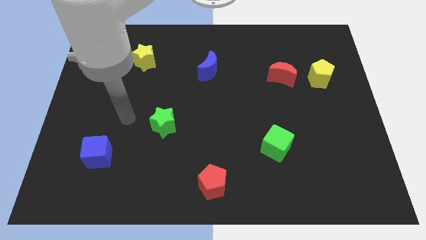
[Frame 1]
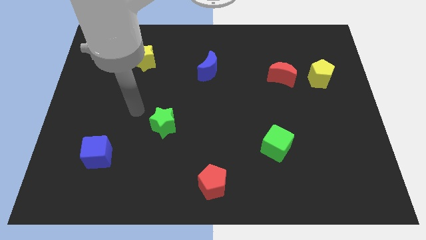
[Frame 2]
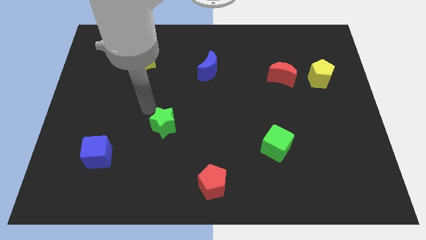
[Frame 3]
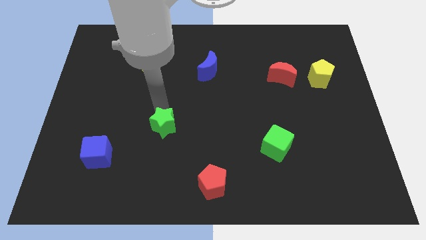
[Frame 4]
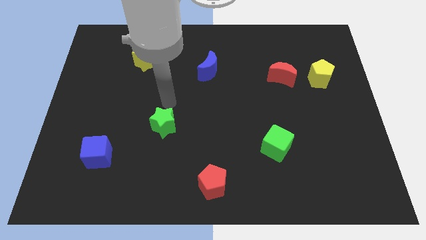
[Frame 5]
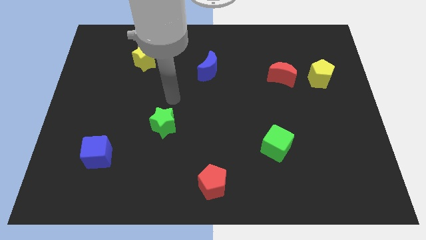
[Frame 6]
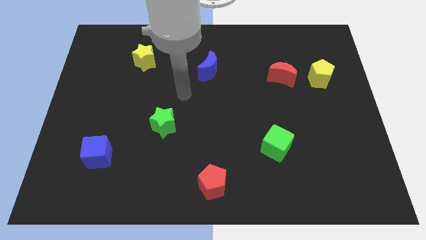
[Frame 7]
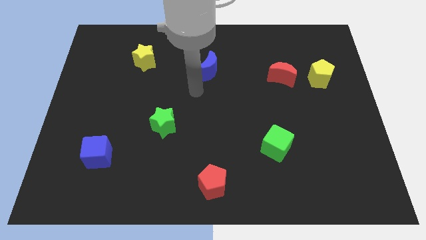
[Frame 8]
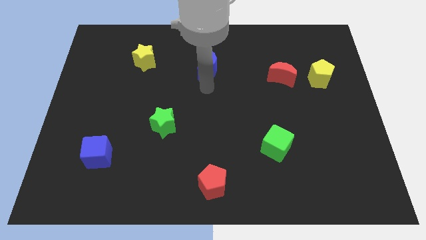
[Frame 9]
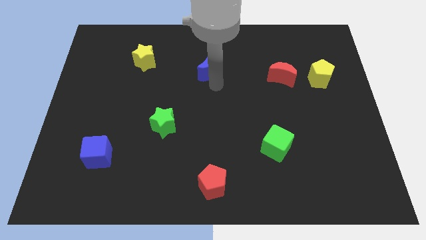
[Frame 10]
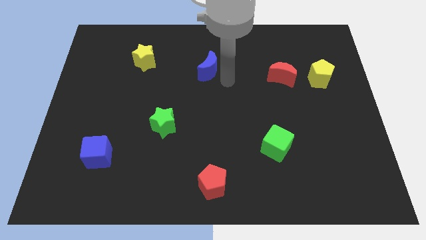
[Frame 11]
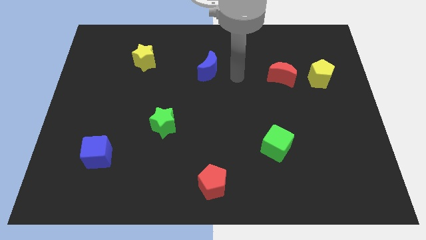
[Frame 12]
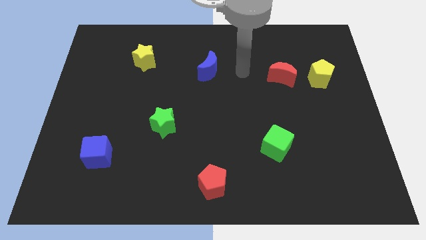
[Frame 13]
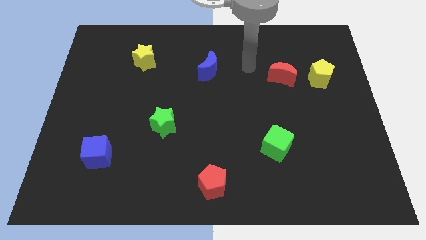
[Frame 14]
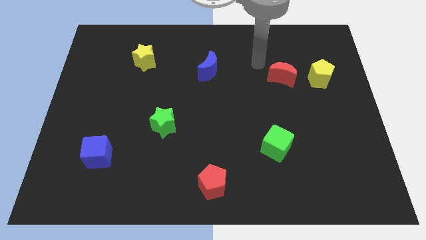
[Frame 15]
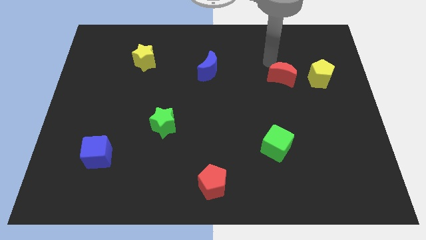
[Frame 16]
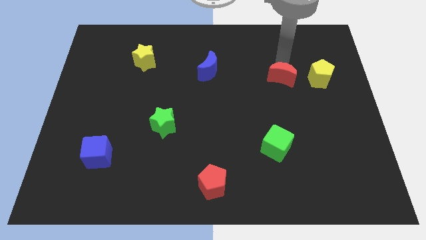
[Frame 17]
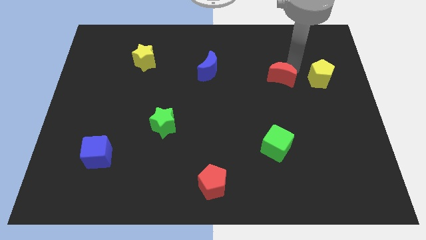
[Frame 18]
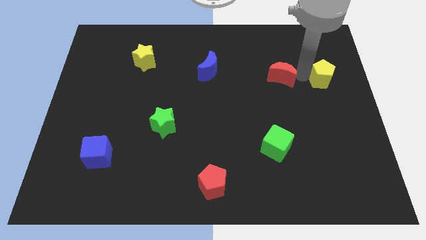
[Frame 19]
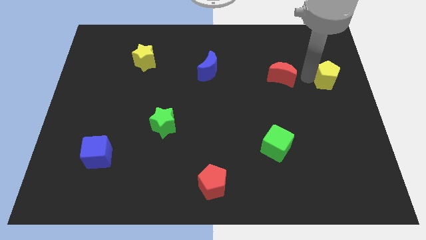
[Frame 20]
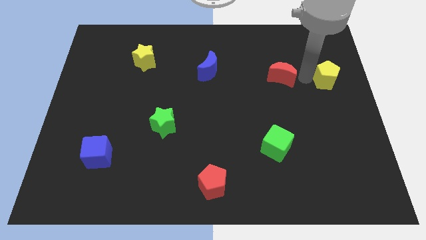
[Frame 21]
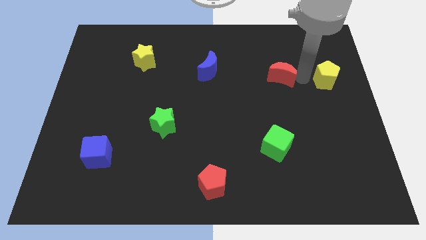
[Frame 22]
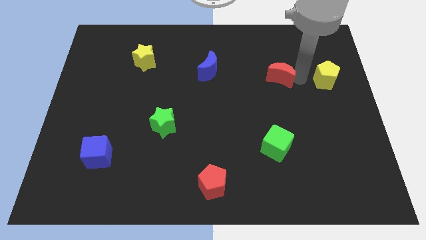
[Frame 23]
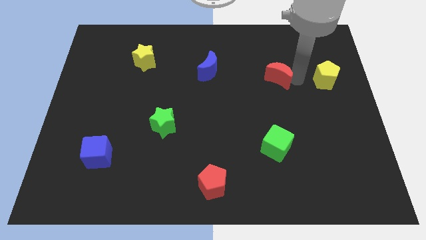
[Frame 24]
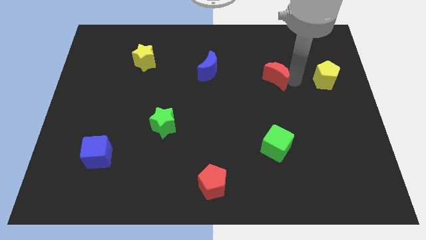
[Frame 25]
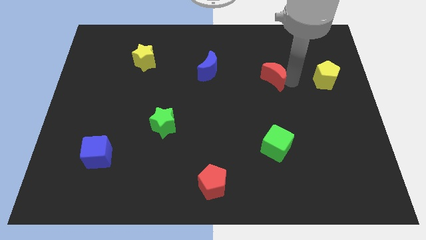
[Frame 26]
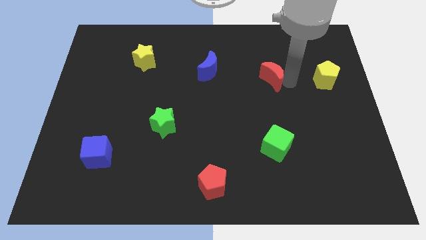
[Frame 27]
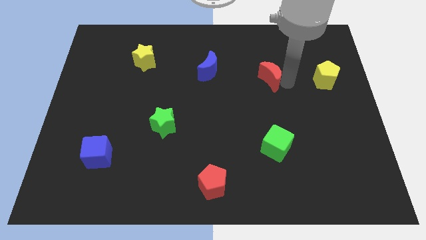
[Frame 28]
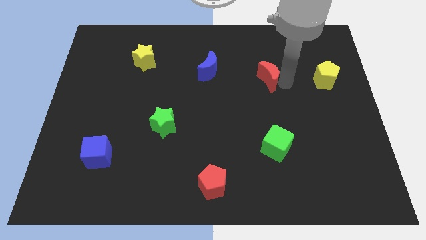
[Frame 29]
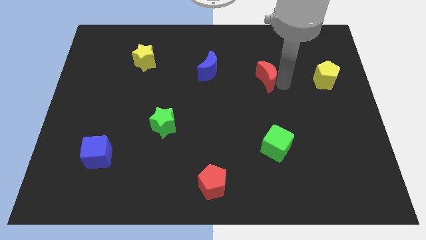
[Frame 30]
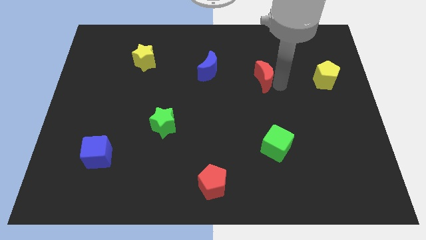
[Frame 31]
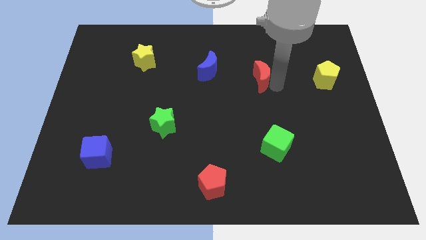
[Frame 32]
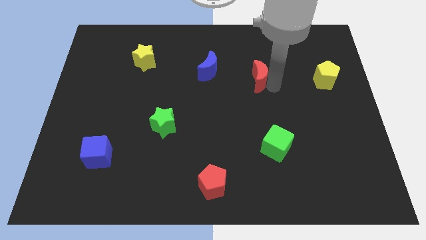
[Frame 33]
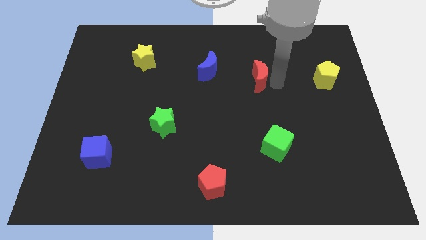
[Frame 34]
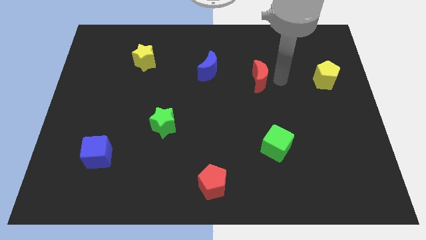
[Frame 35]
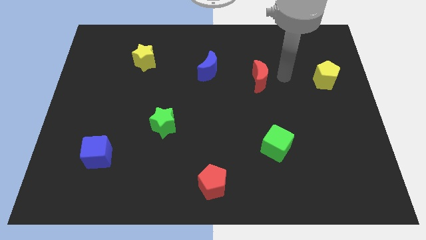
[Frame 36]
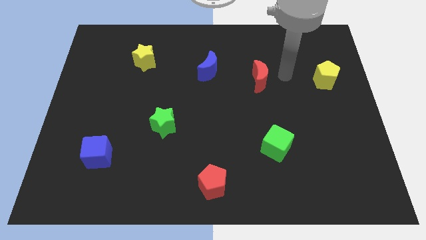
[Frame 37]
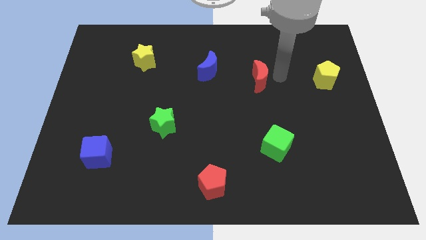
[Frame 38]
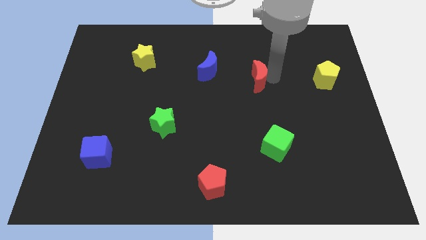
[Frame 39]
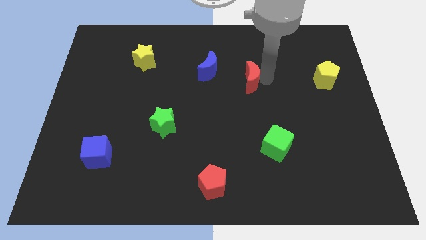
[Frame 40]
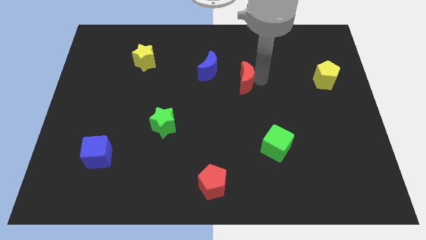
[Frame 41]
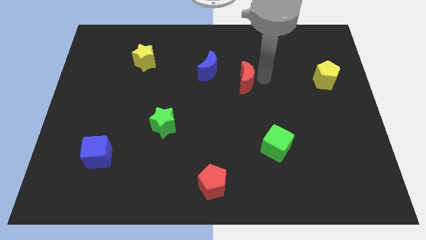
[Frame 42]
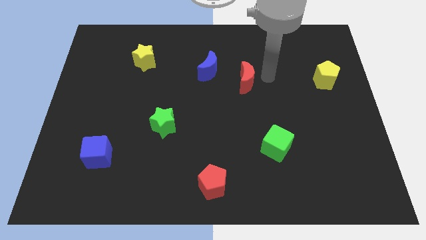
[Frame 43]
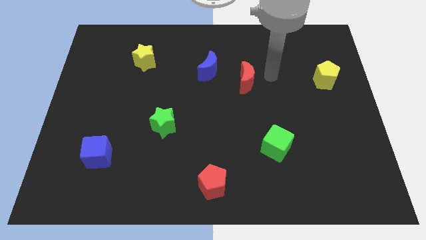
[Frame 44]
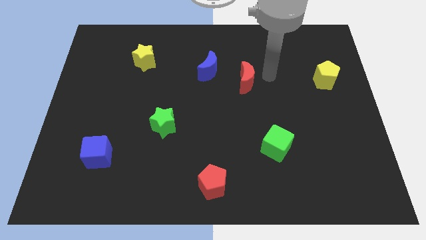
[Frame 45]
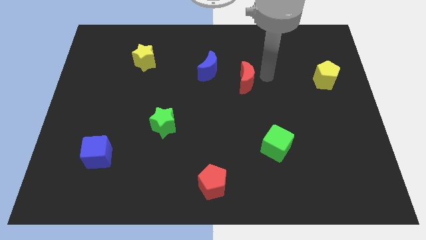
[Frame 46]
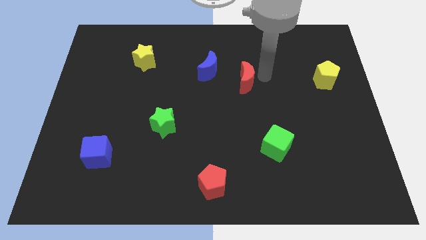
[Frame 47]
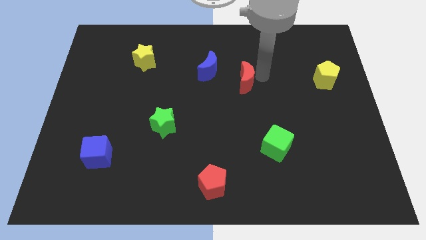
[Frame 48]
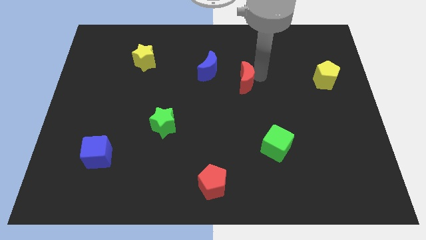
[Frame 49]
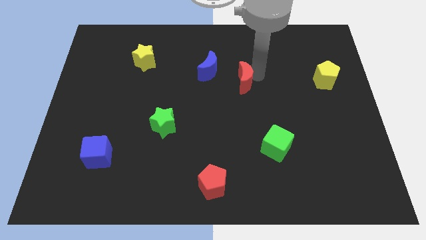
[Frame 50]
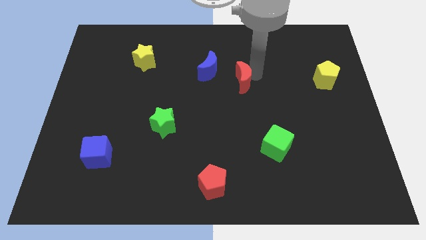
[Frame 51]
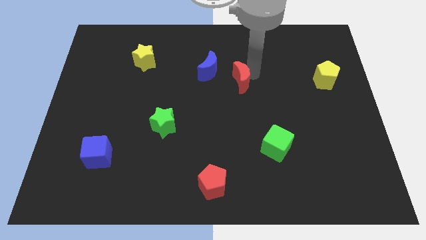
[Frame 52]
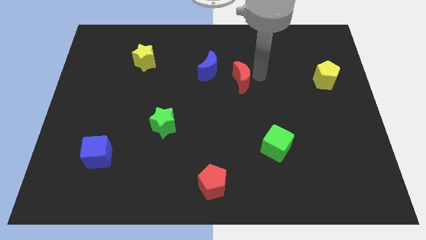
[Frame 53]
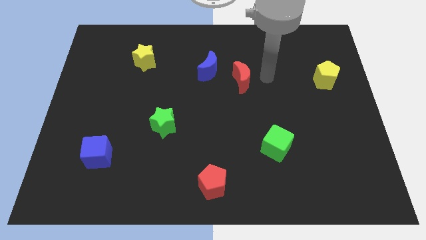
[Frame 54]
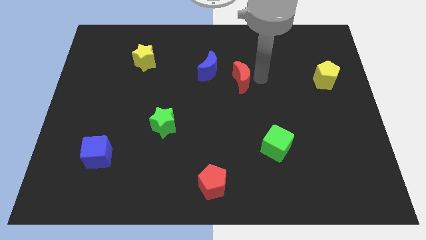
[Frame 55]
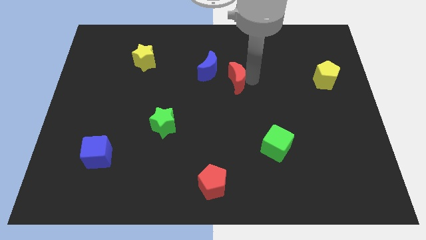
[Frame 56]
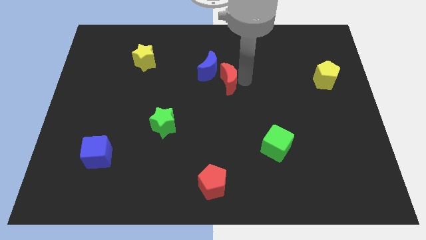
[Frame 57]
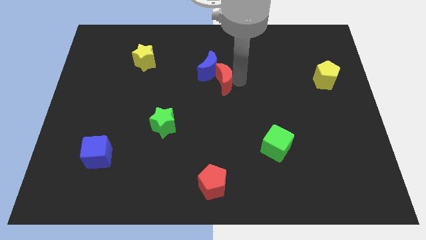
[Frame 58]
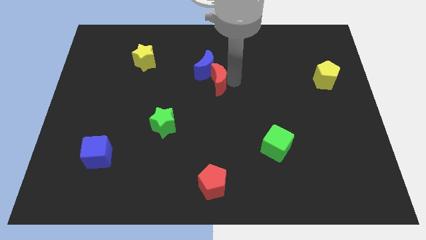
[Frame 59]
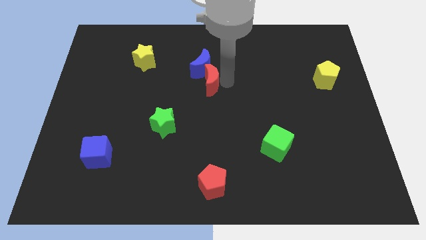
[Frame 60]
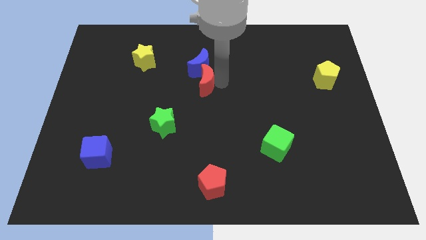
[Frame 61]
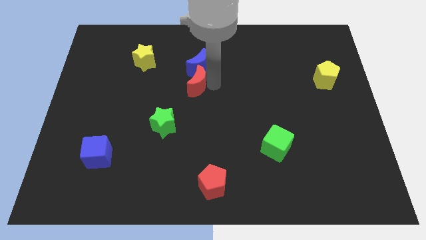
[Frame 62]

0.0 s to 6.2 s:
slide the red moon left

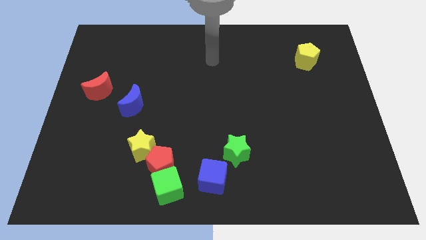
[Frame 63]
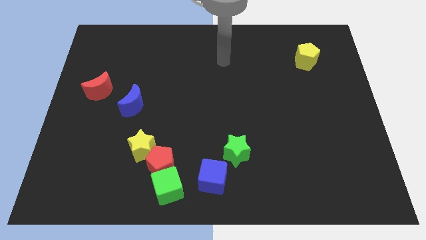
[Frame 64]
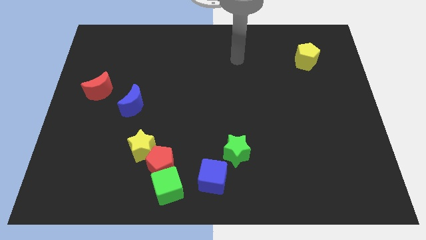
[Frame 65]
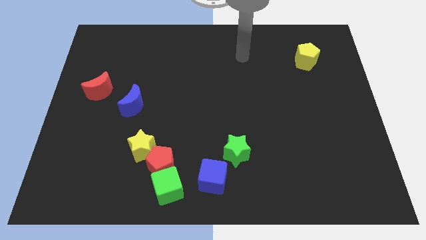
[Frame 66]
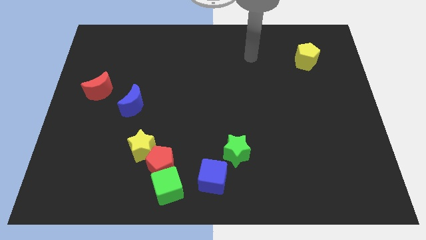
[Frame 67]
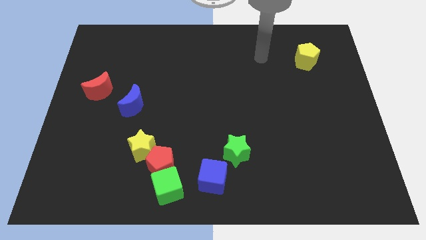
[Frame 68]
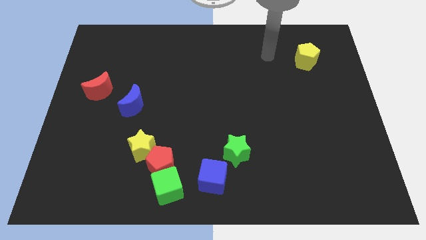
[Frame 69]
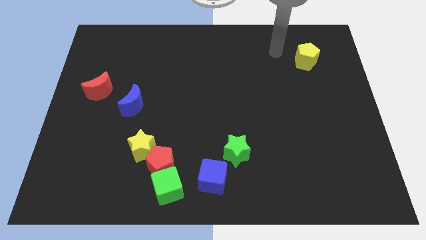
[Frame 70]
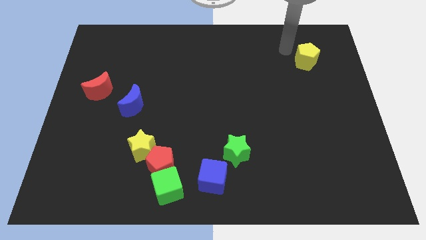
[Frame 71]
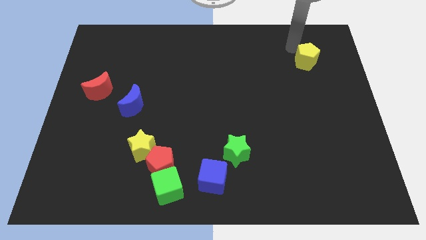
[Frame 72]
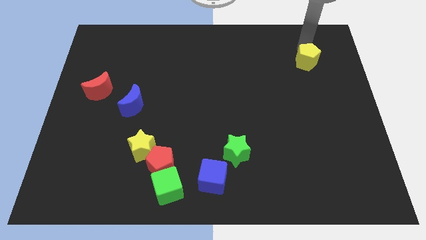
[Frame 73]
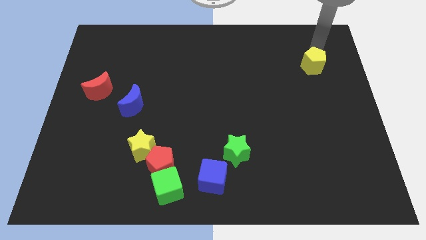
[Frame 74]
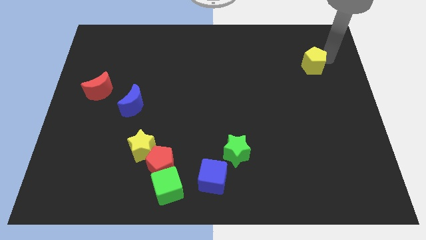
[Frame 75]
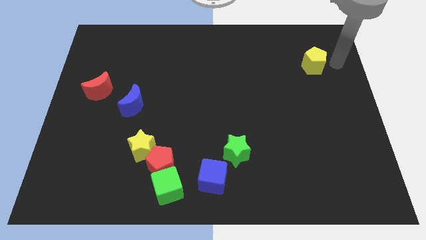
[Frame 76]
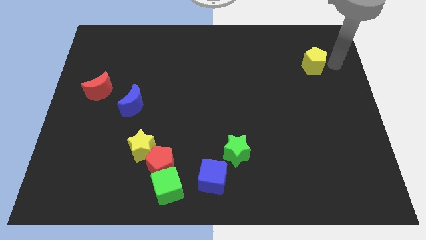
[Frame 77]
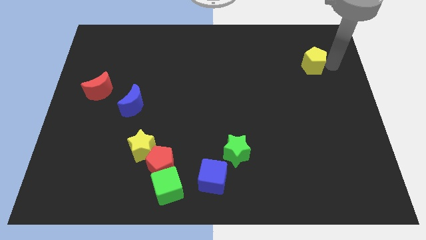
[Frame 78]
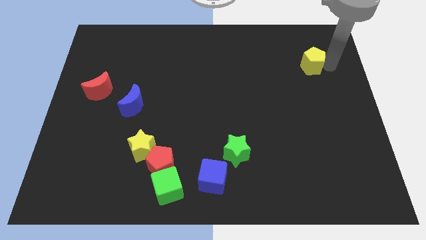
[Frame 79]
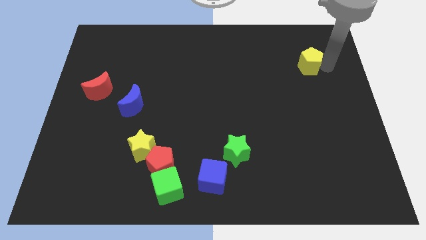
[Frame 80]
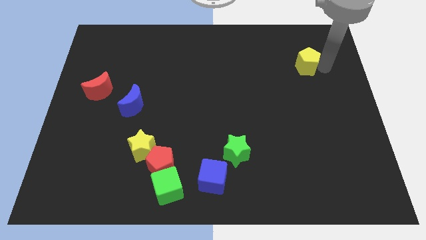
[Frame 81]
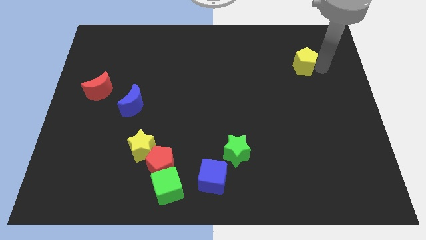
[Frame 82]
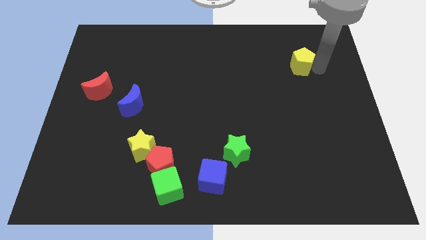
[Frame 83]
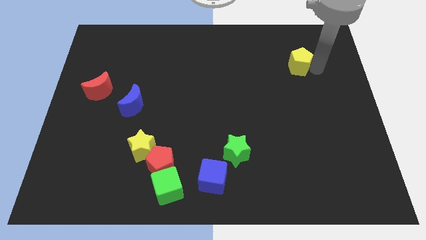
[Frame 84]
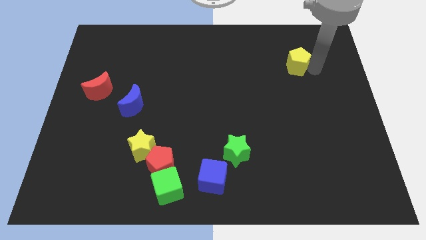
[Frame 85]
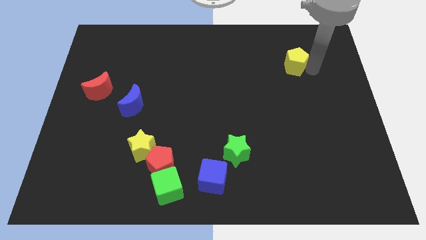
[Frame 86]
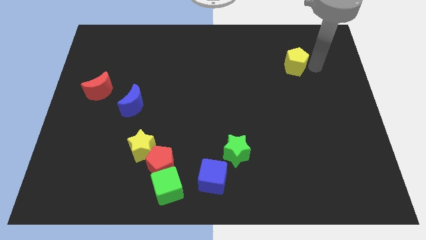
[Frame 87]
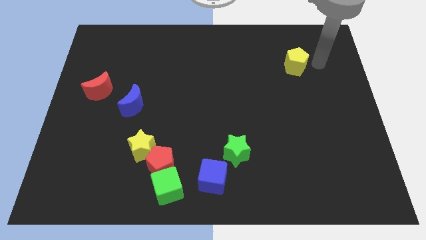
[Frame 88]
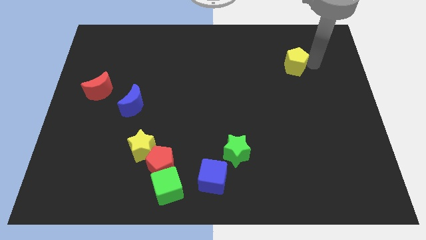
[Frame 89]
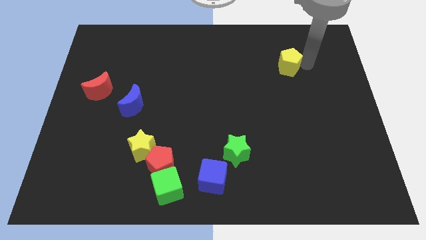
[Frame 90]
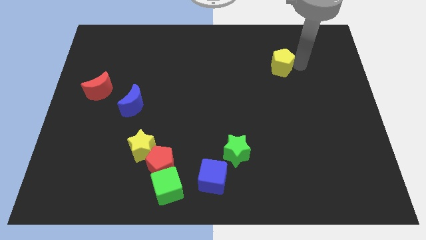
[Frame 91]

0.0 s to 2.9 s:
slightly push the yellow pentagon left
